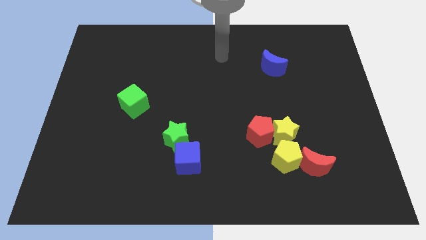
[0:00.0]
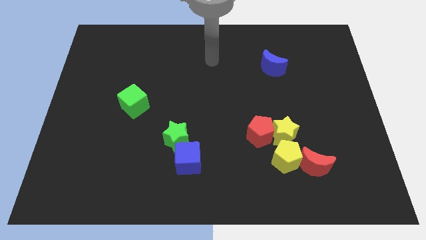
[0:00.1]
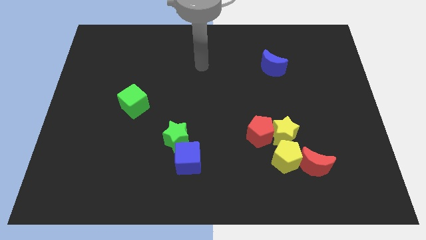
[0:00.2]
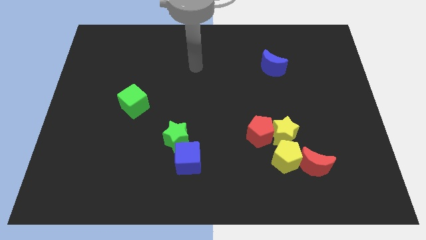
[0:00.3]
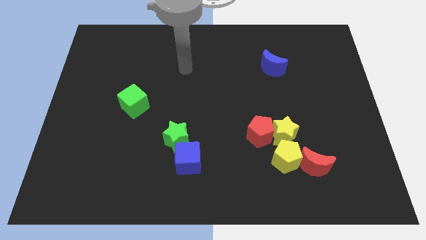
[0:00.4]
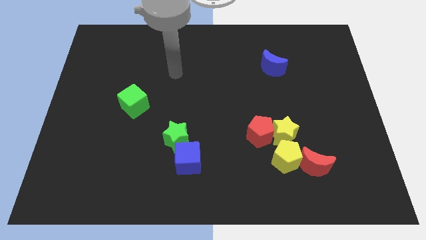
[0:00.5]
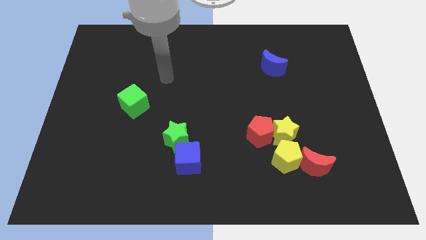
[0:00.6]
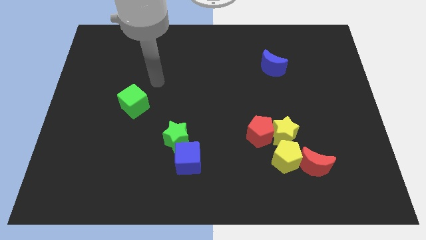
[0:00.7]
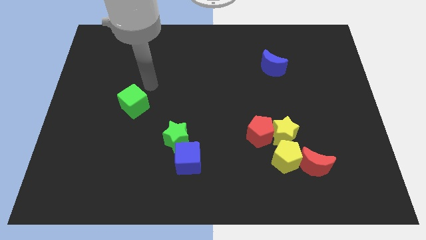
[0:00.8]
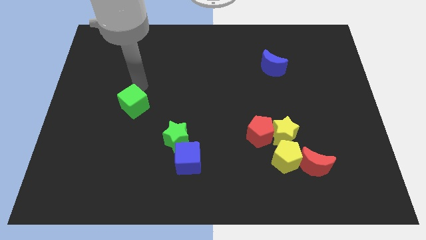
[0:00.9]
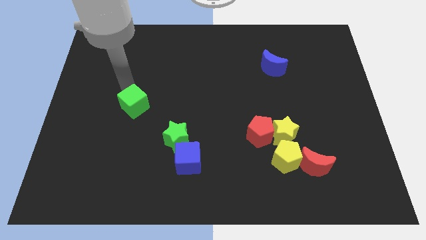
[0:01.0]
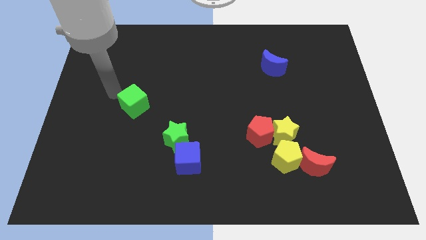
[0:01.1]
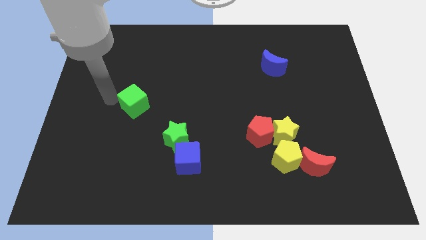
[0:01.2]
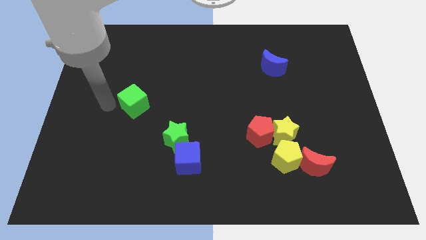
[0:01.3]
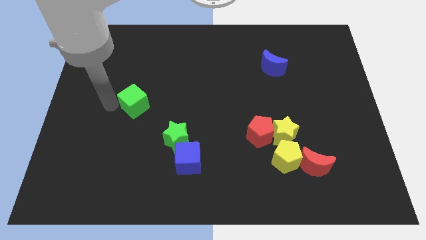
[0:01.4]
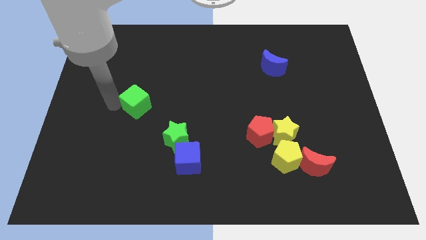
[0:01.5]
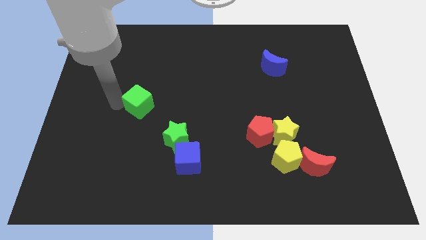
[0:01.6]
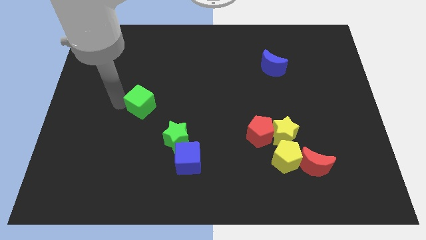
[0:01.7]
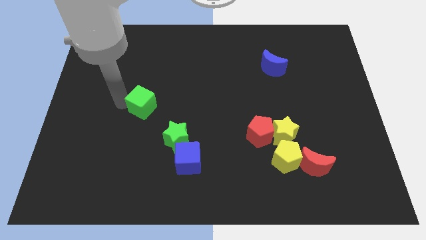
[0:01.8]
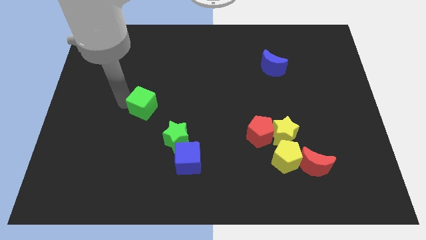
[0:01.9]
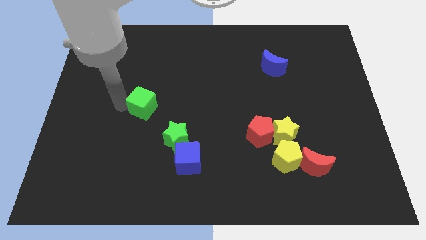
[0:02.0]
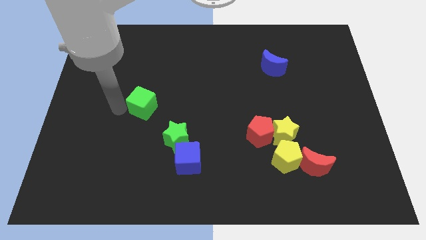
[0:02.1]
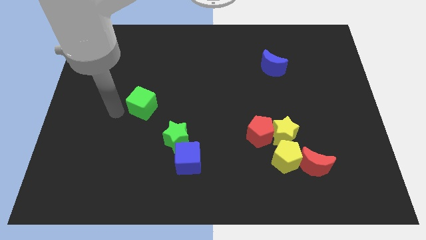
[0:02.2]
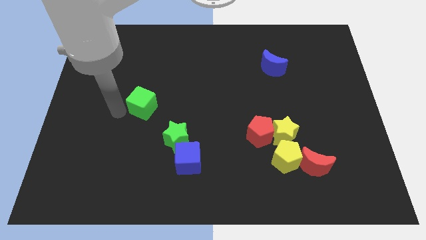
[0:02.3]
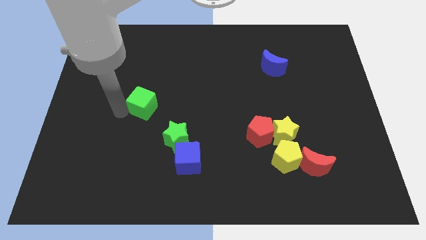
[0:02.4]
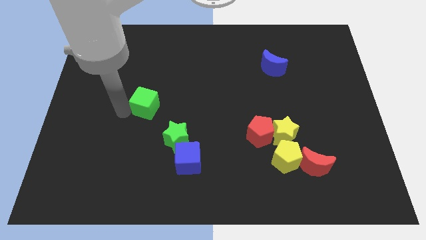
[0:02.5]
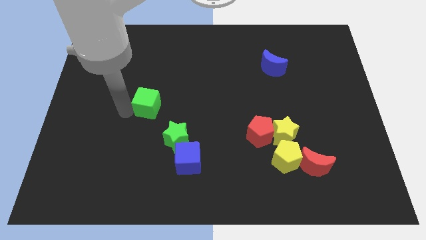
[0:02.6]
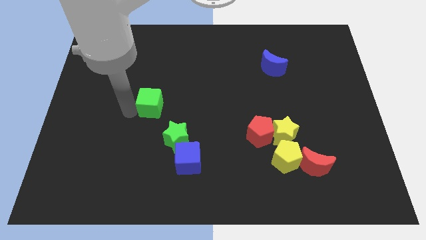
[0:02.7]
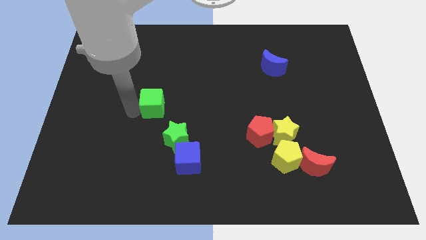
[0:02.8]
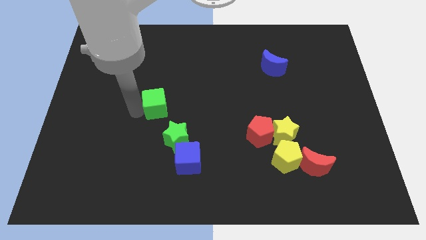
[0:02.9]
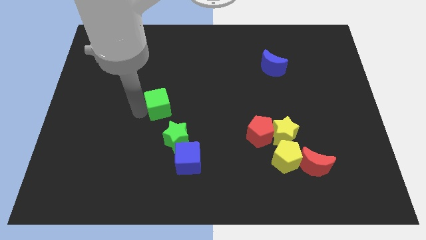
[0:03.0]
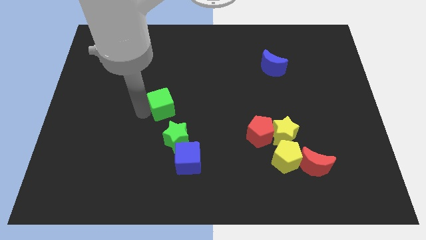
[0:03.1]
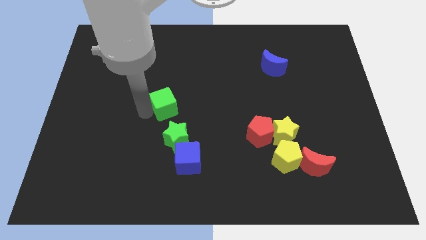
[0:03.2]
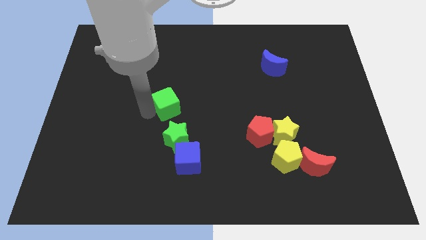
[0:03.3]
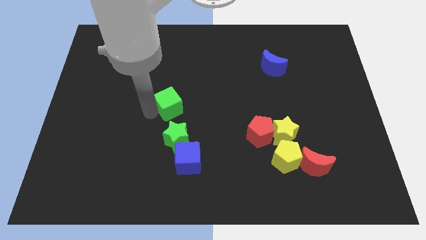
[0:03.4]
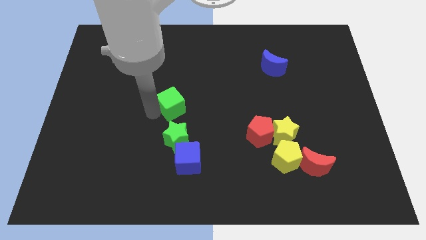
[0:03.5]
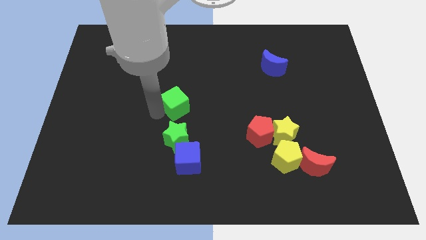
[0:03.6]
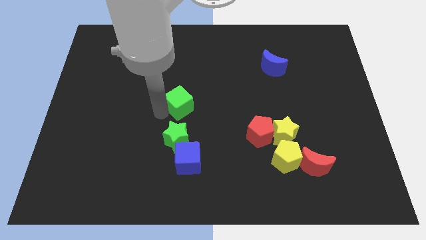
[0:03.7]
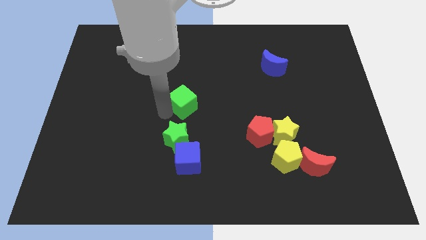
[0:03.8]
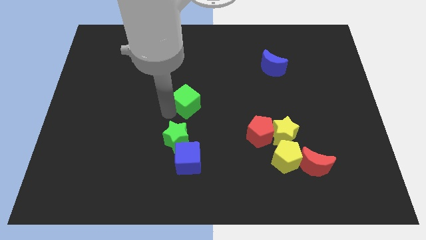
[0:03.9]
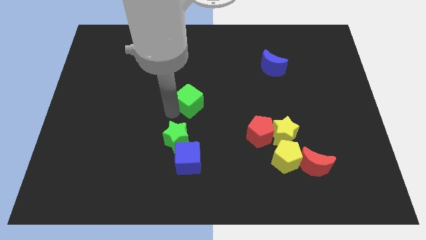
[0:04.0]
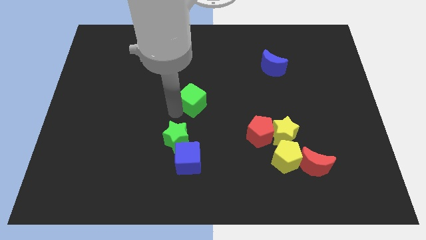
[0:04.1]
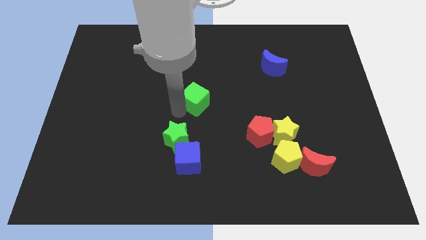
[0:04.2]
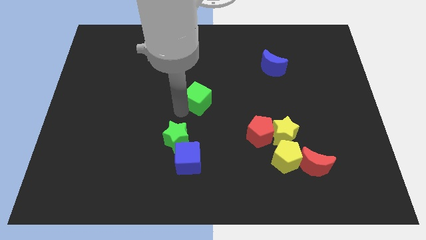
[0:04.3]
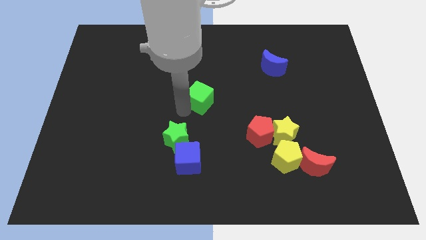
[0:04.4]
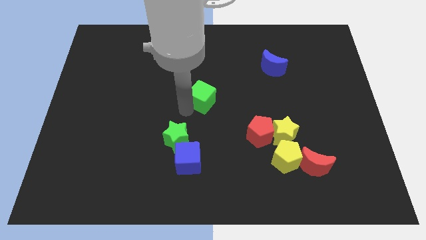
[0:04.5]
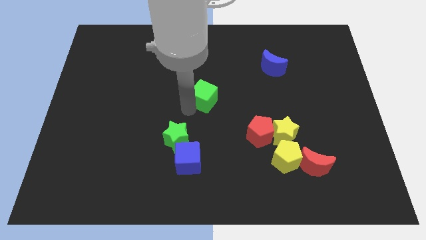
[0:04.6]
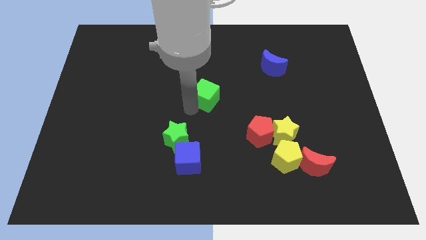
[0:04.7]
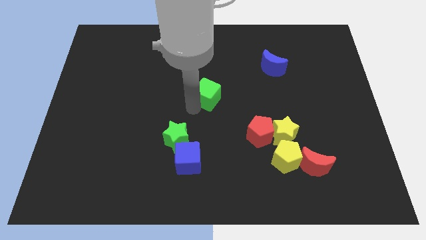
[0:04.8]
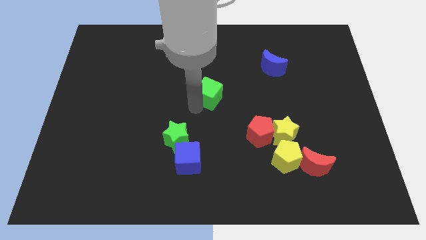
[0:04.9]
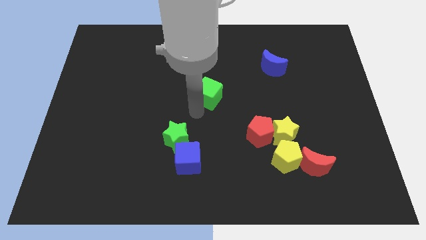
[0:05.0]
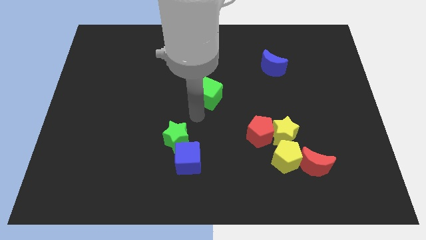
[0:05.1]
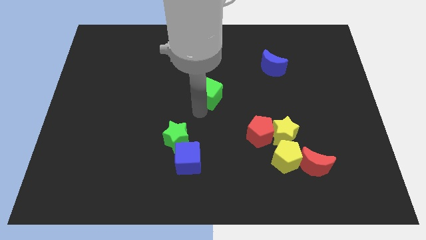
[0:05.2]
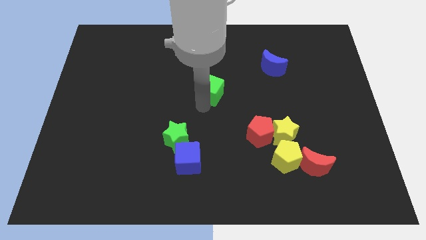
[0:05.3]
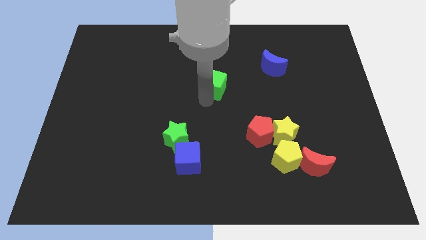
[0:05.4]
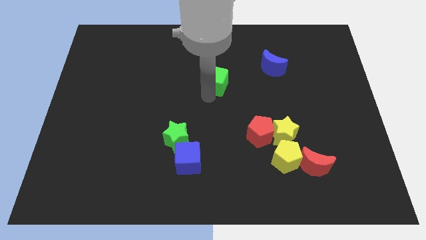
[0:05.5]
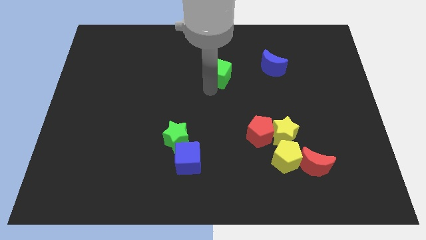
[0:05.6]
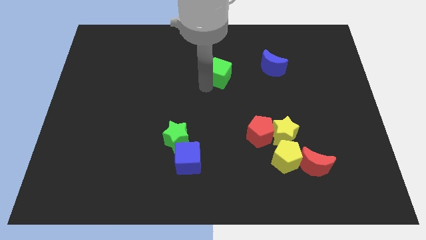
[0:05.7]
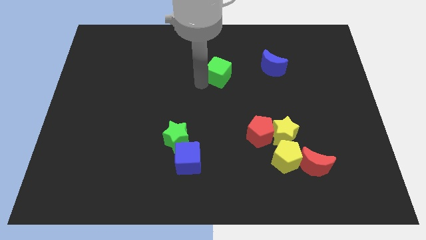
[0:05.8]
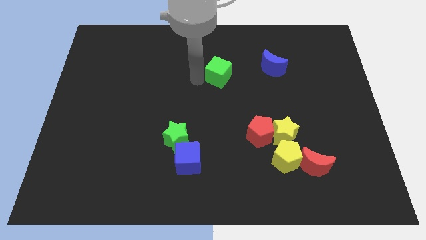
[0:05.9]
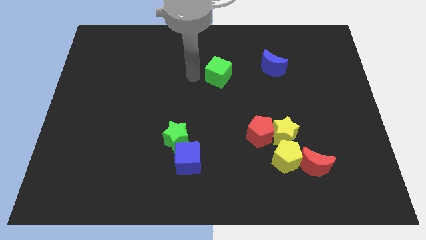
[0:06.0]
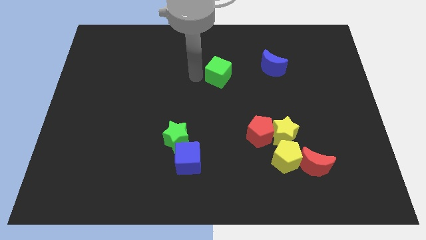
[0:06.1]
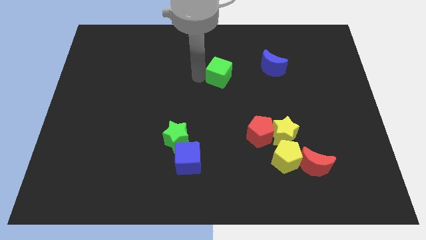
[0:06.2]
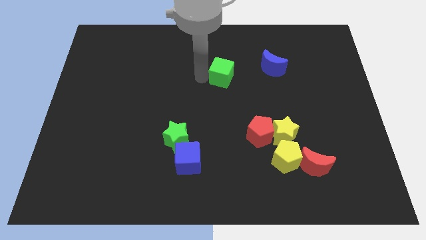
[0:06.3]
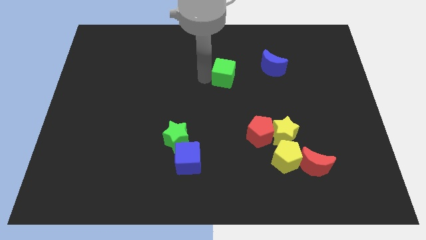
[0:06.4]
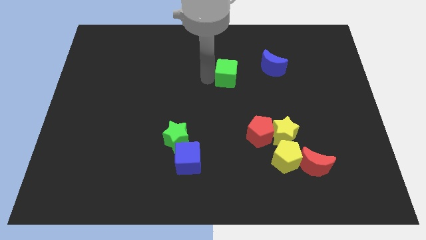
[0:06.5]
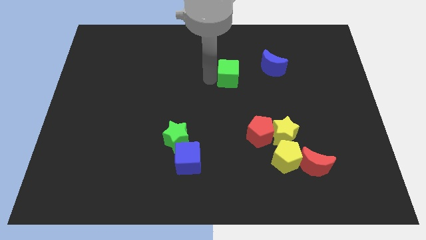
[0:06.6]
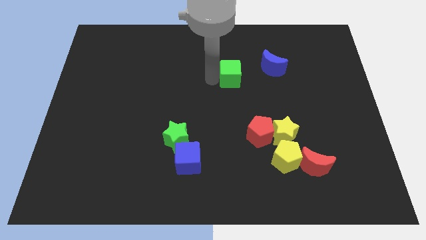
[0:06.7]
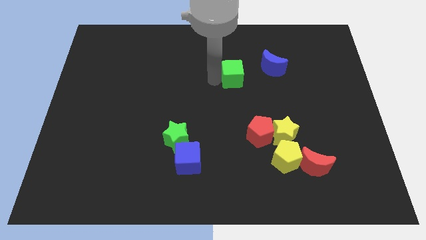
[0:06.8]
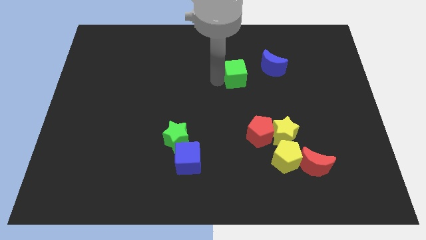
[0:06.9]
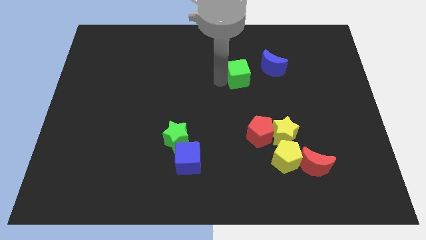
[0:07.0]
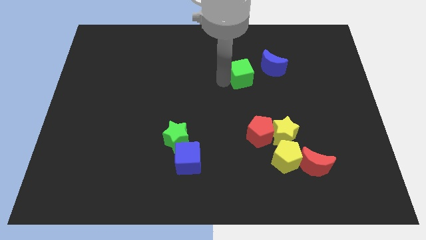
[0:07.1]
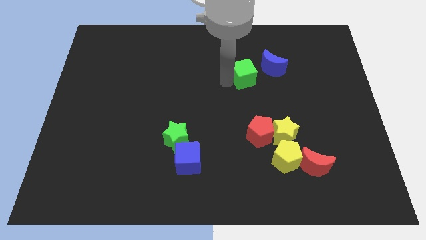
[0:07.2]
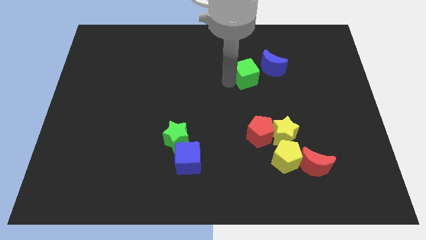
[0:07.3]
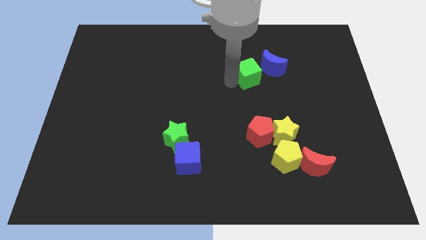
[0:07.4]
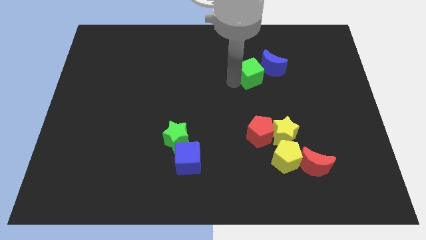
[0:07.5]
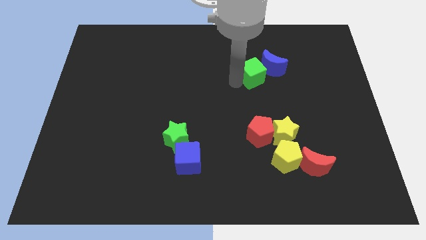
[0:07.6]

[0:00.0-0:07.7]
put the green cube next to the blue moon

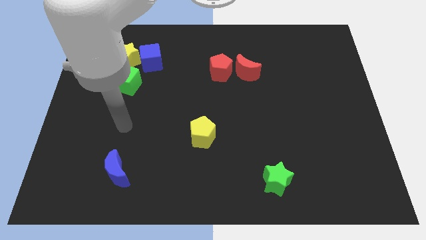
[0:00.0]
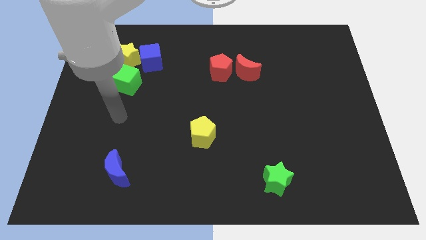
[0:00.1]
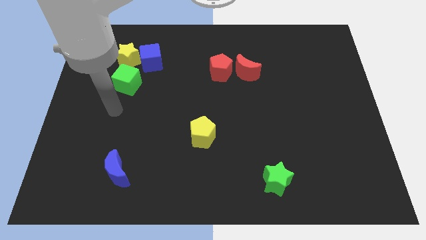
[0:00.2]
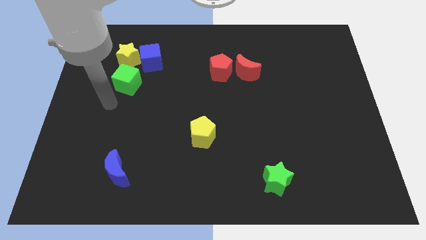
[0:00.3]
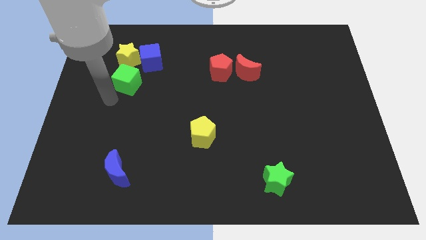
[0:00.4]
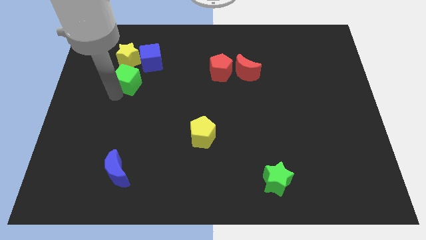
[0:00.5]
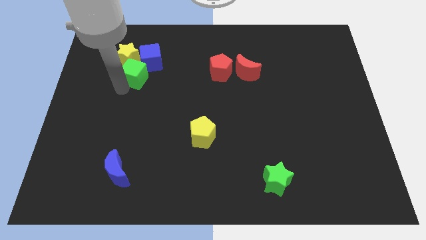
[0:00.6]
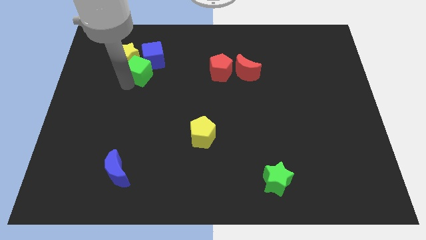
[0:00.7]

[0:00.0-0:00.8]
move the green cube to the blue cube
